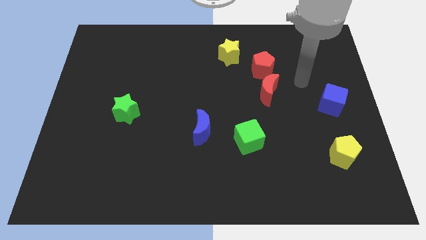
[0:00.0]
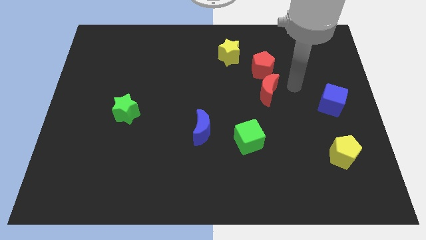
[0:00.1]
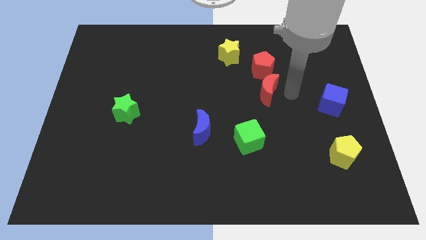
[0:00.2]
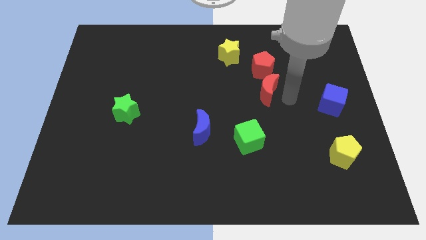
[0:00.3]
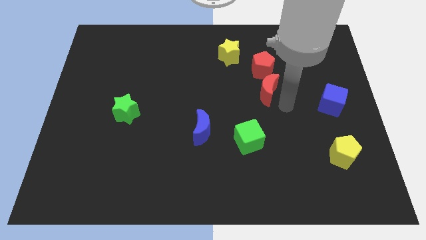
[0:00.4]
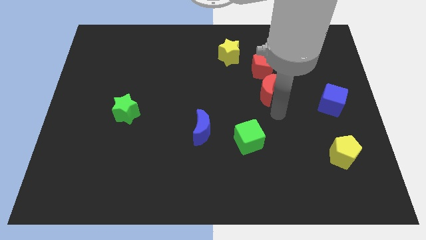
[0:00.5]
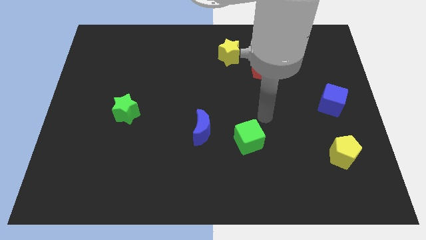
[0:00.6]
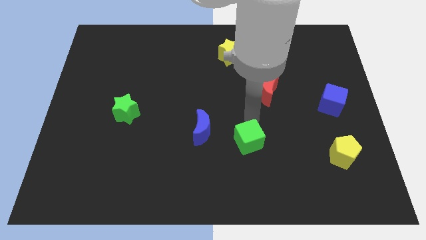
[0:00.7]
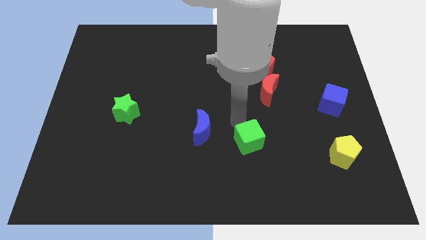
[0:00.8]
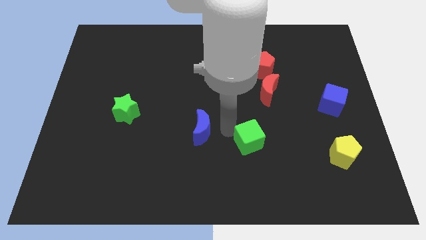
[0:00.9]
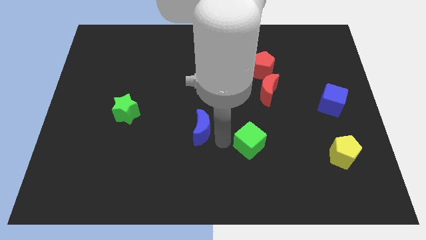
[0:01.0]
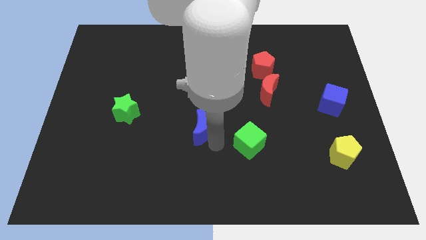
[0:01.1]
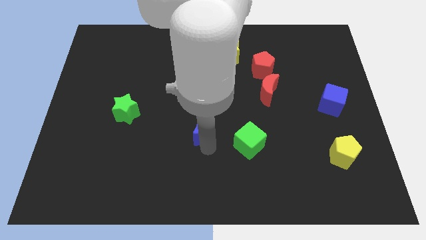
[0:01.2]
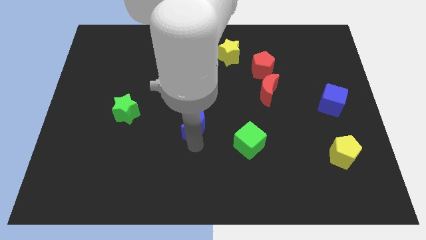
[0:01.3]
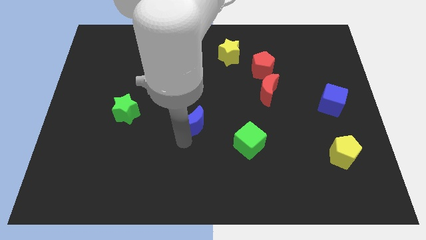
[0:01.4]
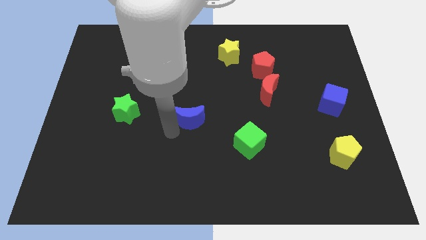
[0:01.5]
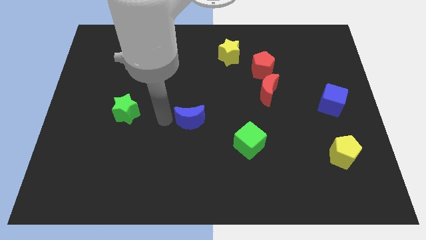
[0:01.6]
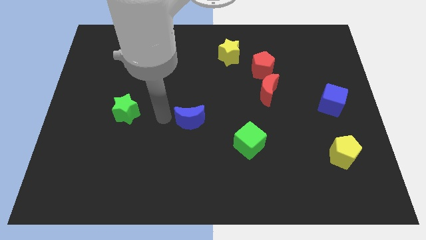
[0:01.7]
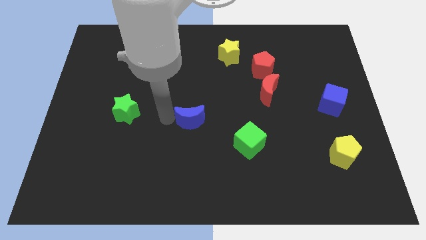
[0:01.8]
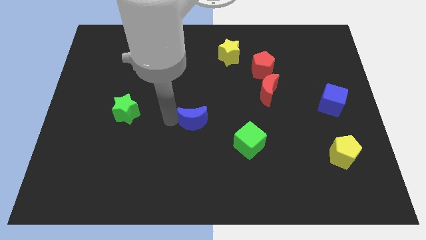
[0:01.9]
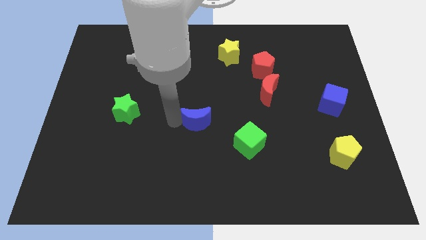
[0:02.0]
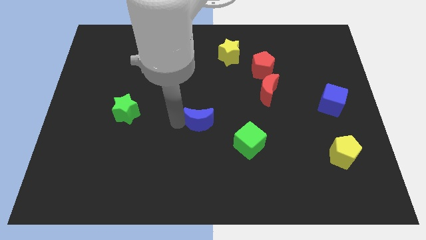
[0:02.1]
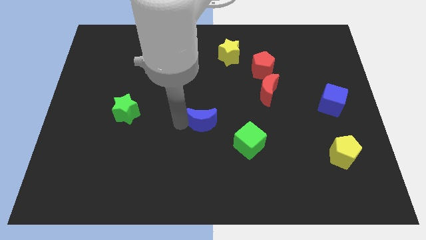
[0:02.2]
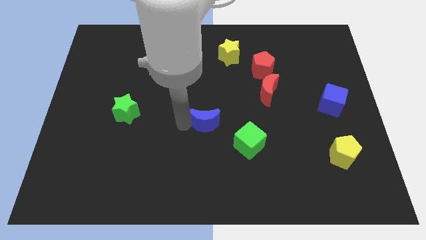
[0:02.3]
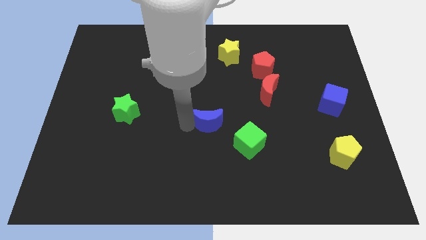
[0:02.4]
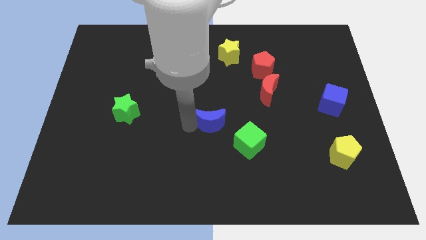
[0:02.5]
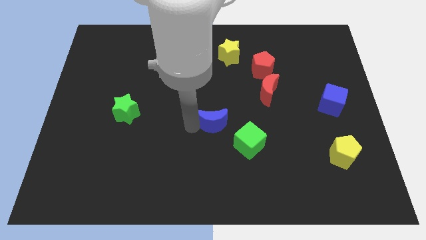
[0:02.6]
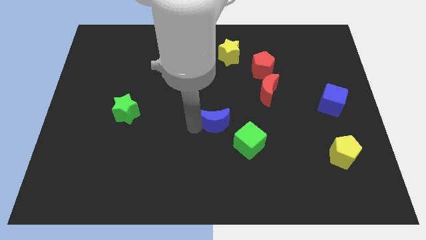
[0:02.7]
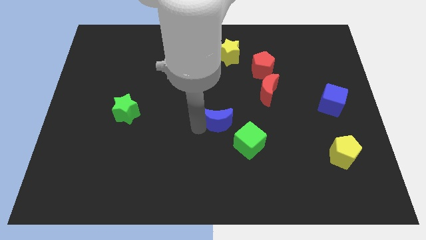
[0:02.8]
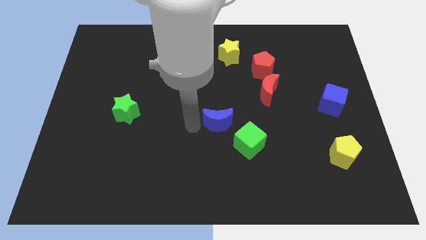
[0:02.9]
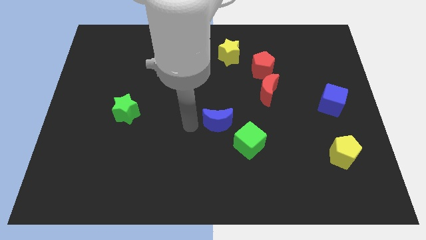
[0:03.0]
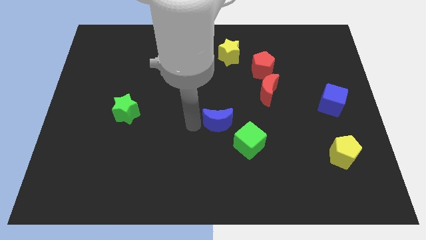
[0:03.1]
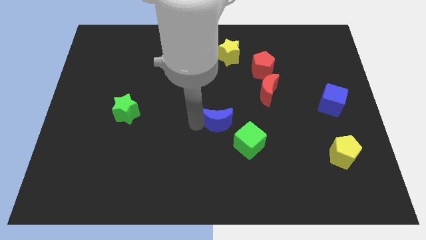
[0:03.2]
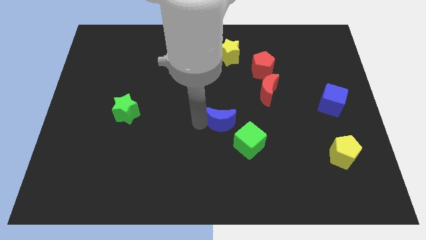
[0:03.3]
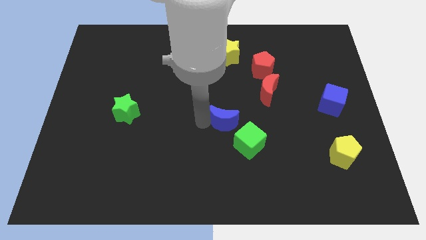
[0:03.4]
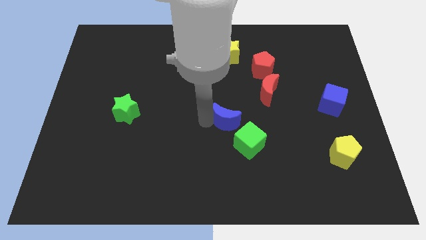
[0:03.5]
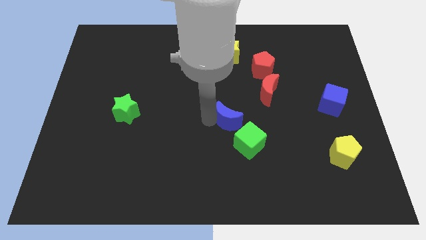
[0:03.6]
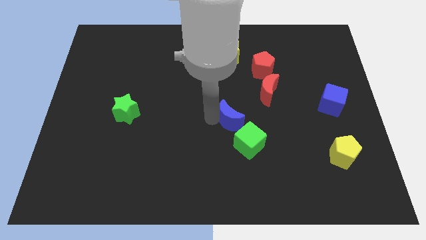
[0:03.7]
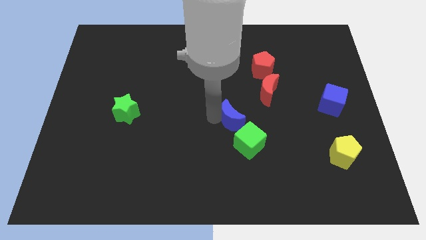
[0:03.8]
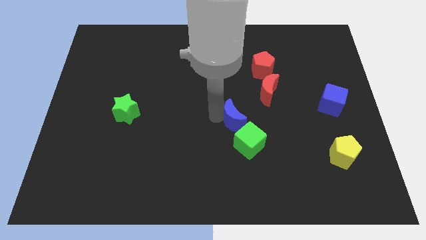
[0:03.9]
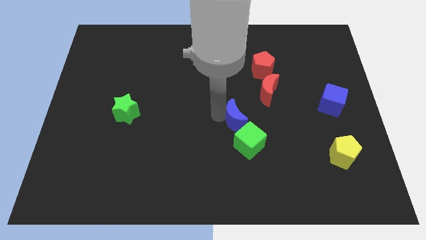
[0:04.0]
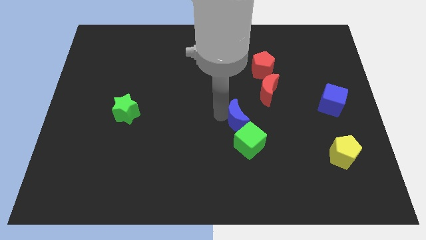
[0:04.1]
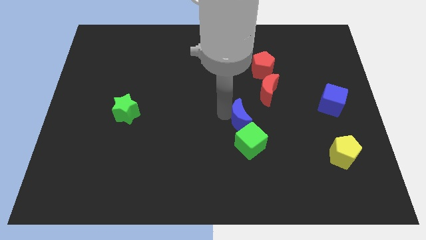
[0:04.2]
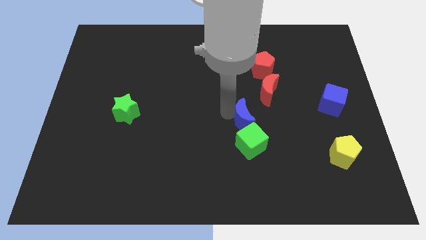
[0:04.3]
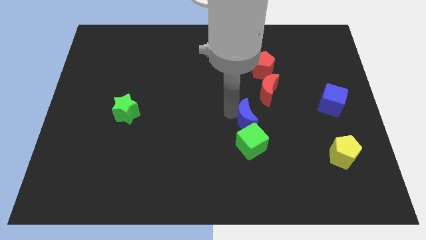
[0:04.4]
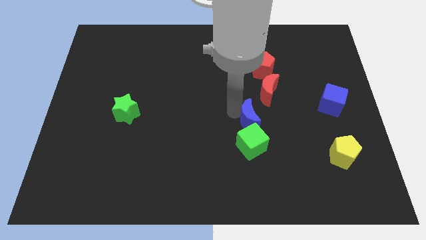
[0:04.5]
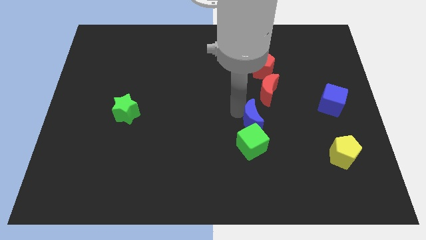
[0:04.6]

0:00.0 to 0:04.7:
put the blue moon to the bottom of the red moon

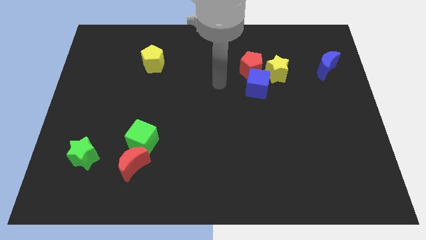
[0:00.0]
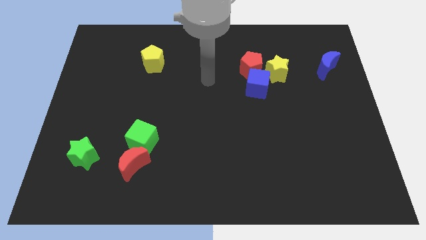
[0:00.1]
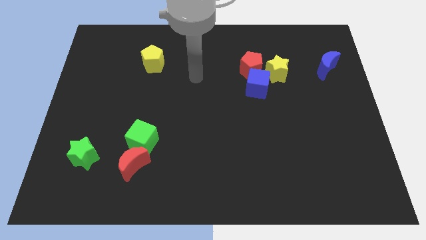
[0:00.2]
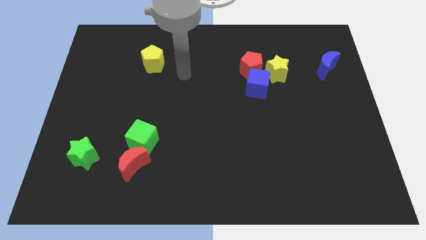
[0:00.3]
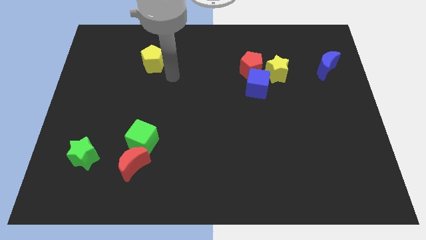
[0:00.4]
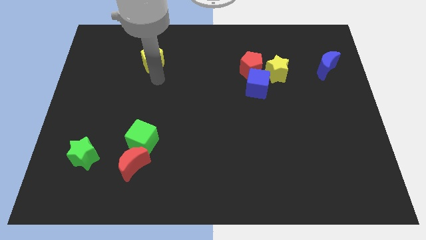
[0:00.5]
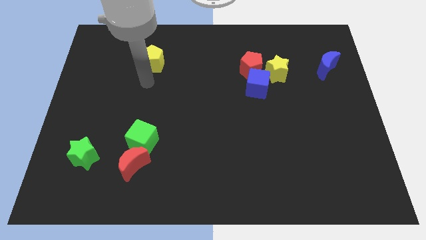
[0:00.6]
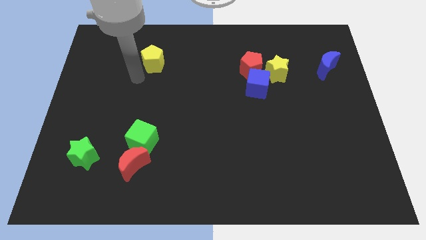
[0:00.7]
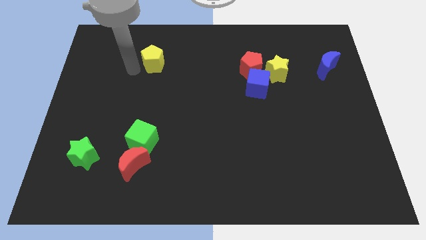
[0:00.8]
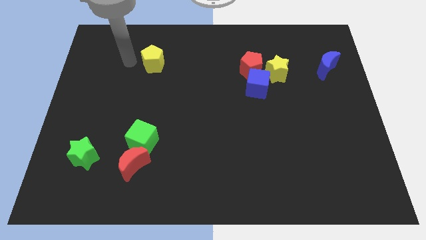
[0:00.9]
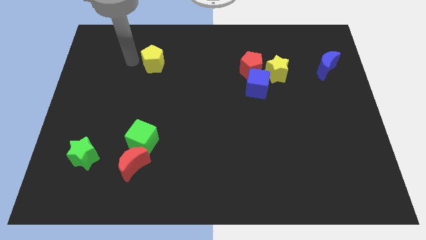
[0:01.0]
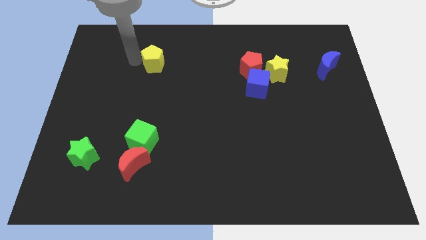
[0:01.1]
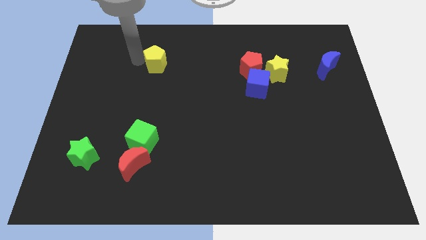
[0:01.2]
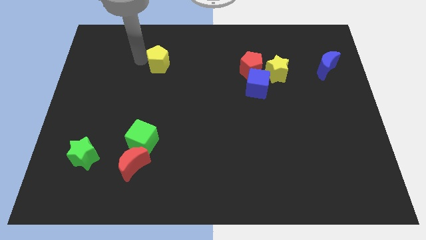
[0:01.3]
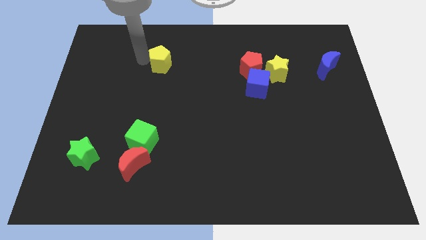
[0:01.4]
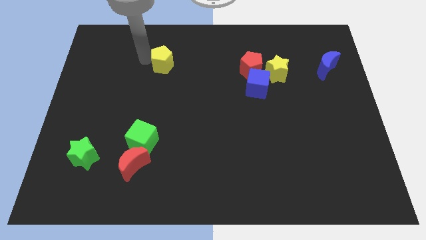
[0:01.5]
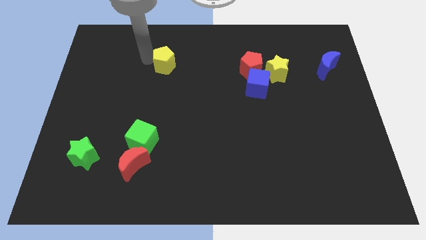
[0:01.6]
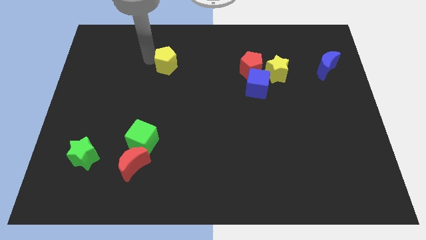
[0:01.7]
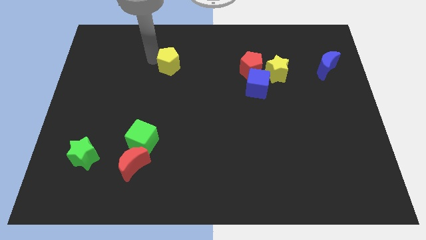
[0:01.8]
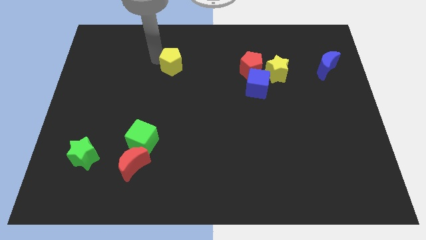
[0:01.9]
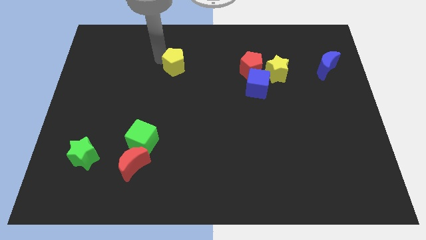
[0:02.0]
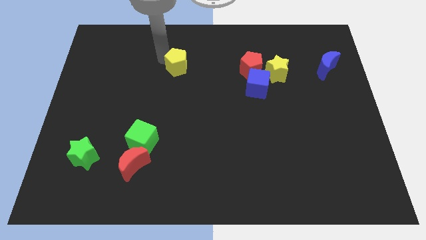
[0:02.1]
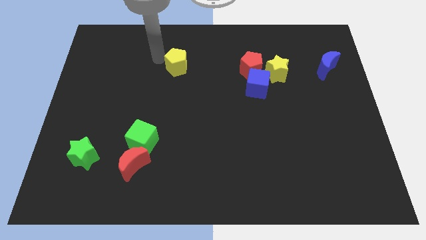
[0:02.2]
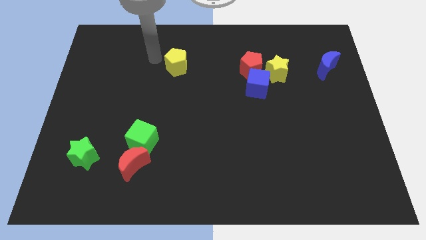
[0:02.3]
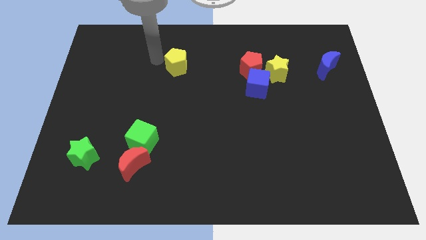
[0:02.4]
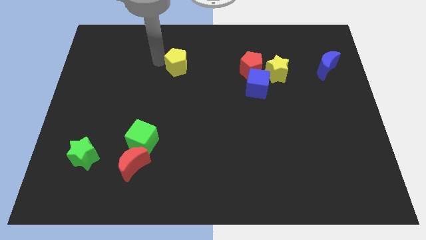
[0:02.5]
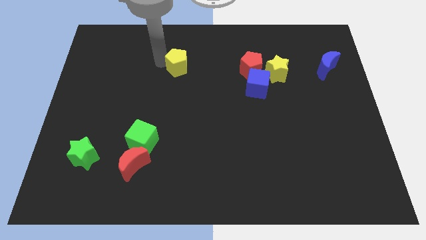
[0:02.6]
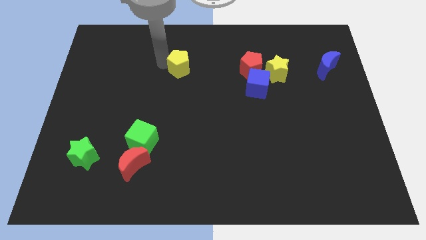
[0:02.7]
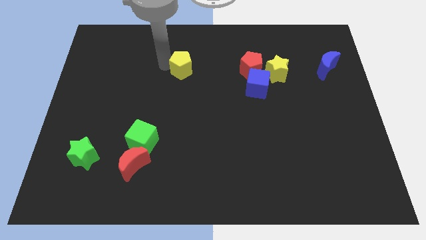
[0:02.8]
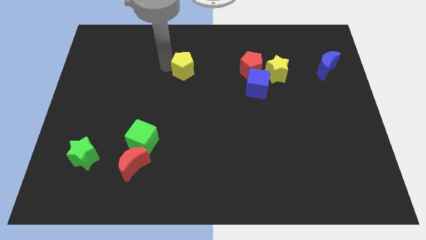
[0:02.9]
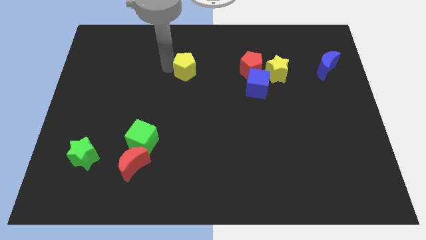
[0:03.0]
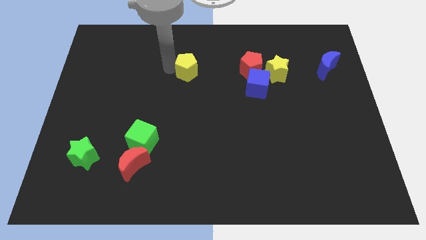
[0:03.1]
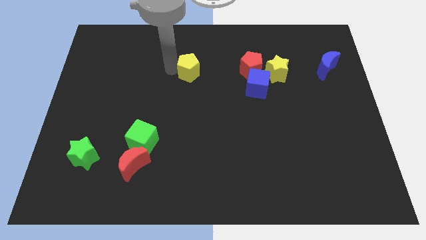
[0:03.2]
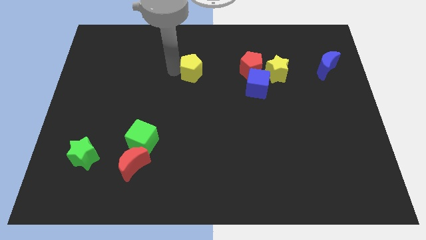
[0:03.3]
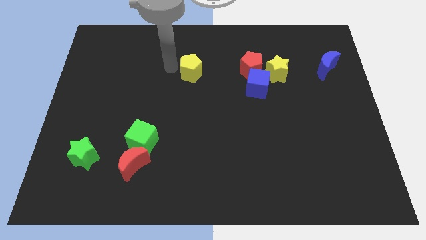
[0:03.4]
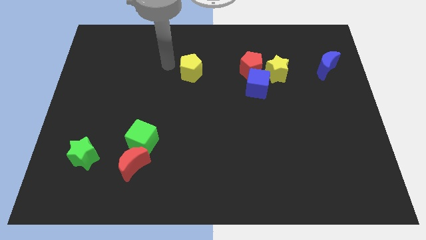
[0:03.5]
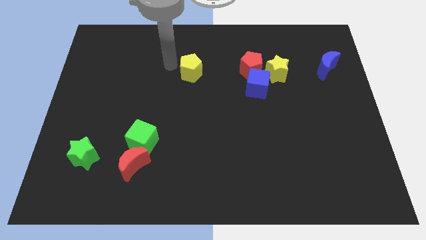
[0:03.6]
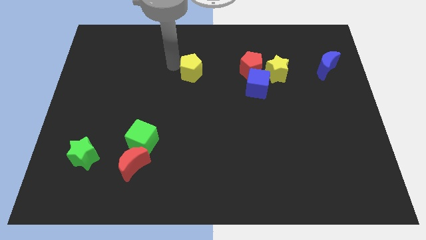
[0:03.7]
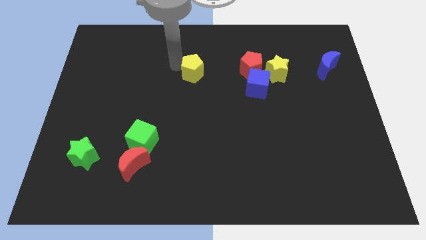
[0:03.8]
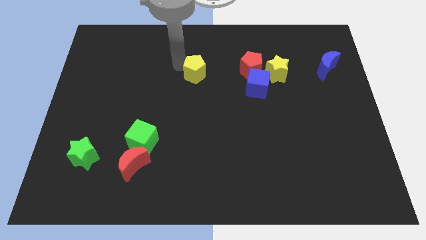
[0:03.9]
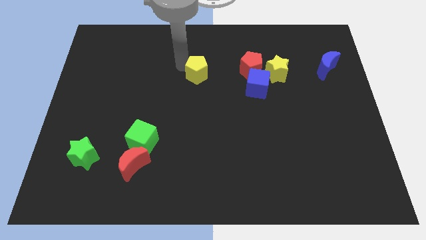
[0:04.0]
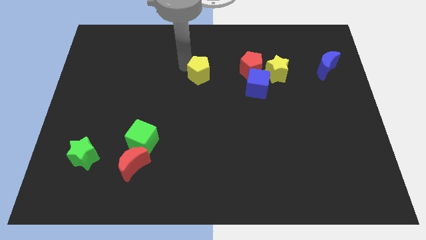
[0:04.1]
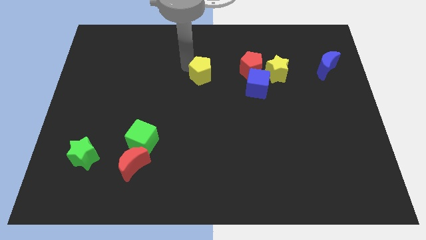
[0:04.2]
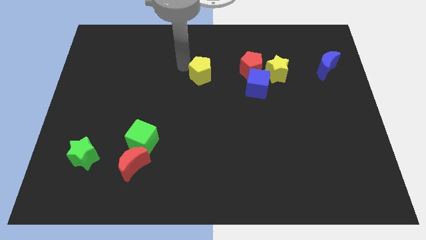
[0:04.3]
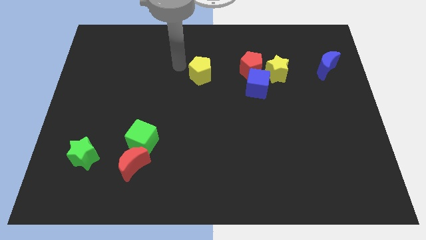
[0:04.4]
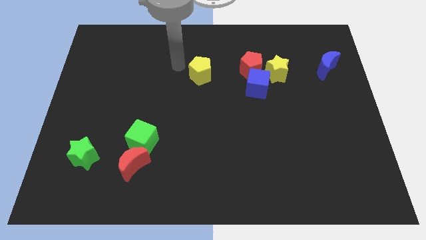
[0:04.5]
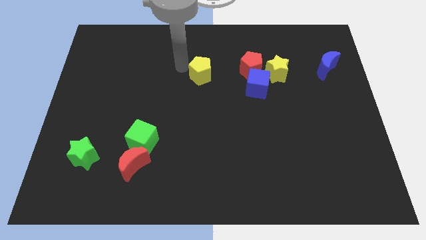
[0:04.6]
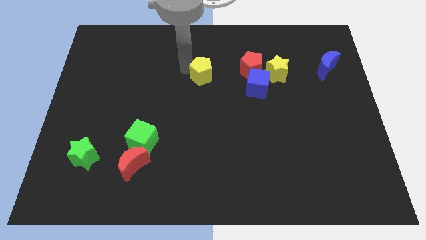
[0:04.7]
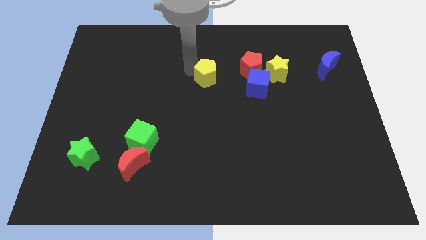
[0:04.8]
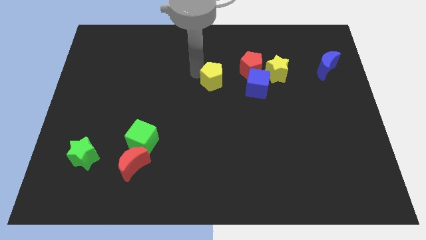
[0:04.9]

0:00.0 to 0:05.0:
push the yellow pentagon diagonally down and to the left of the red pentagon
